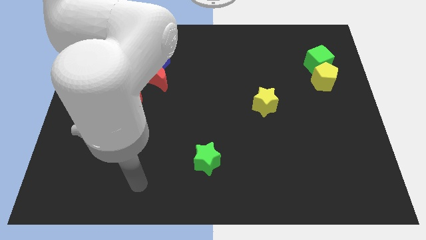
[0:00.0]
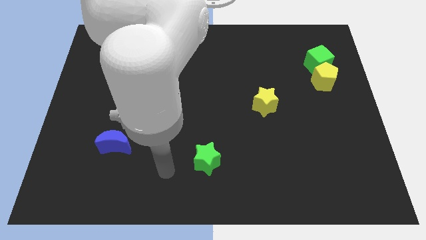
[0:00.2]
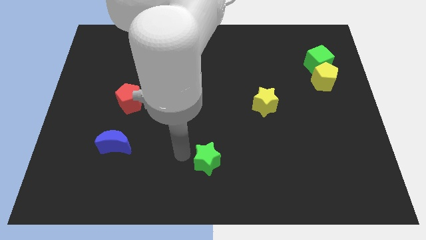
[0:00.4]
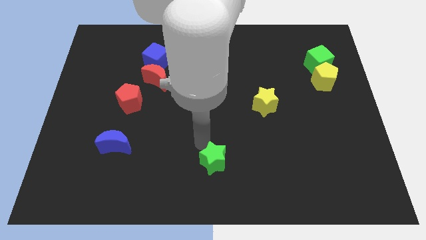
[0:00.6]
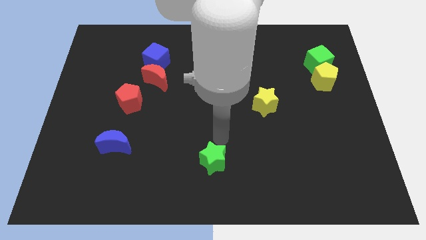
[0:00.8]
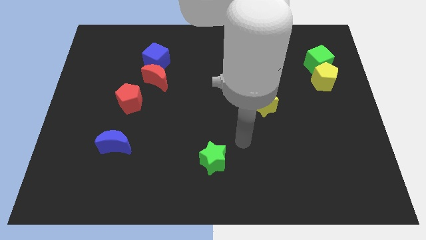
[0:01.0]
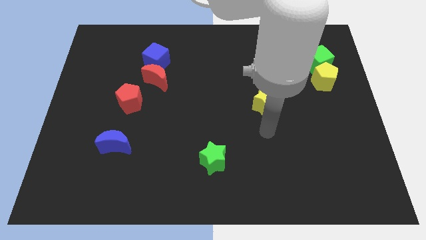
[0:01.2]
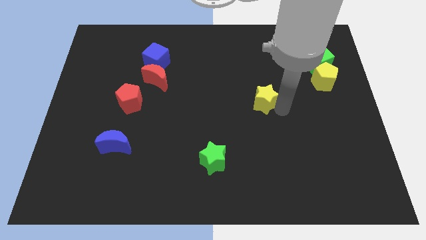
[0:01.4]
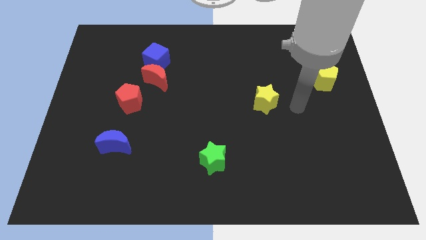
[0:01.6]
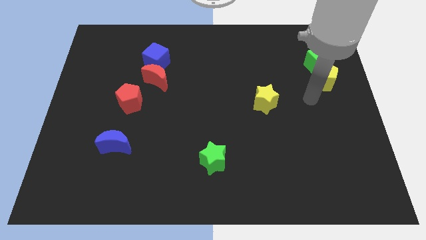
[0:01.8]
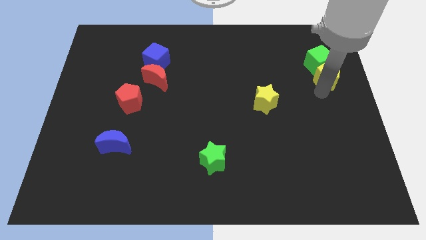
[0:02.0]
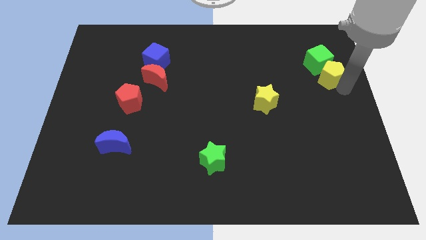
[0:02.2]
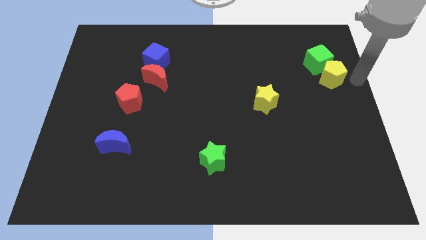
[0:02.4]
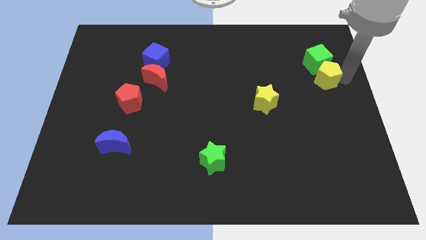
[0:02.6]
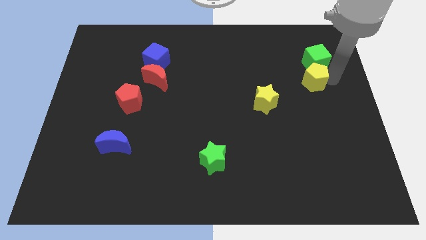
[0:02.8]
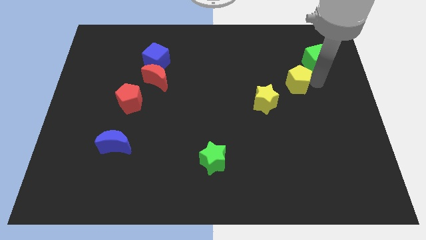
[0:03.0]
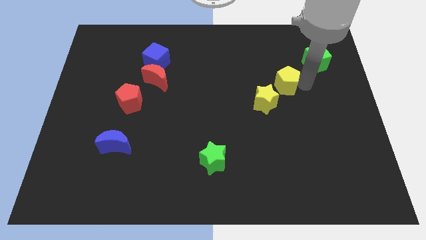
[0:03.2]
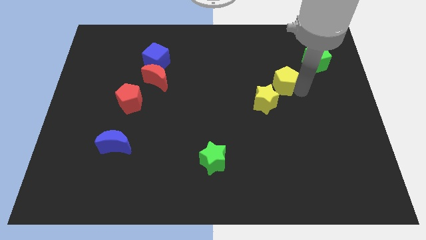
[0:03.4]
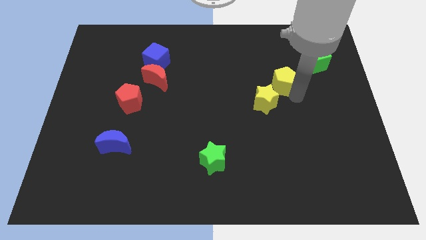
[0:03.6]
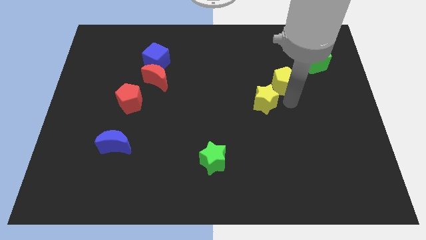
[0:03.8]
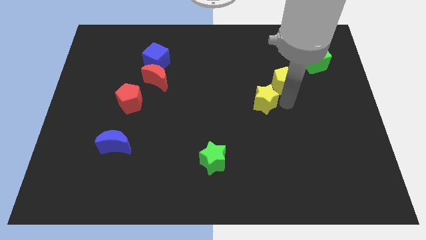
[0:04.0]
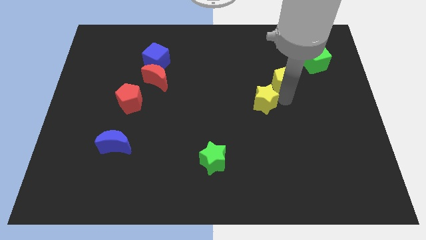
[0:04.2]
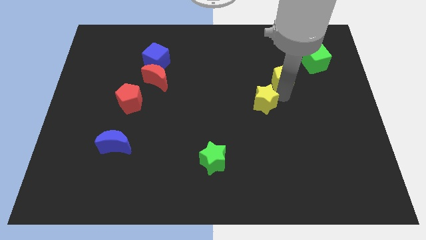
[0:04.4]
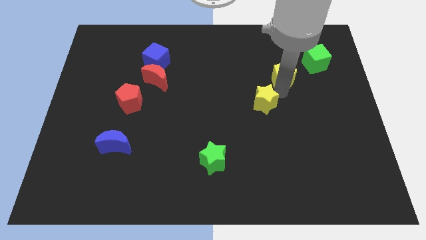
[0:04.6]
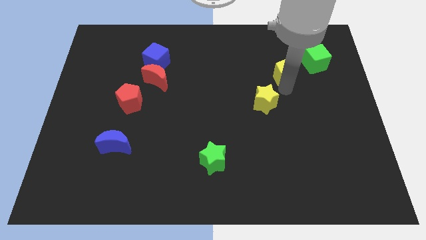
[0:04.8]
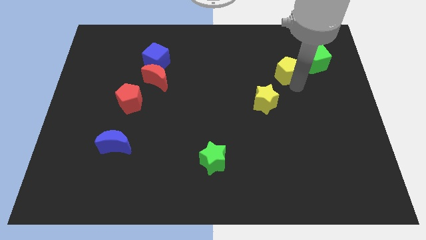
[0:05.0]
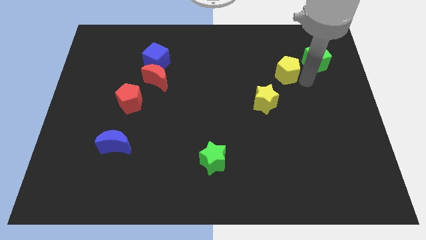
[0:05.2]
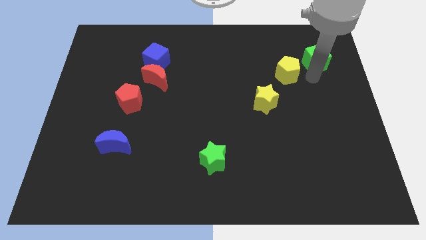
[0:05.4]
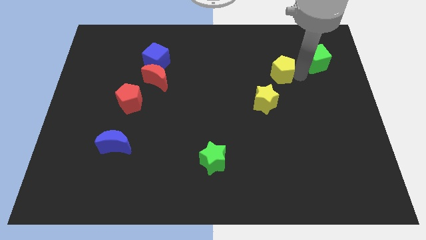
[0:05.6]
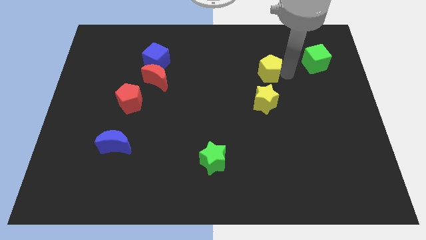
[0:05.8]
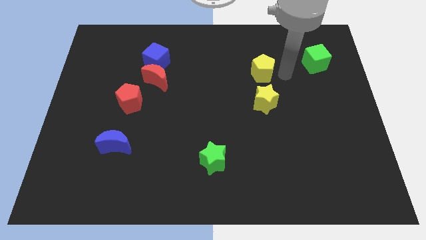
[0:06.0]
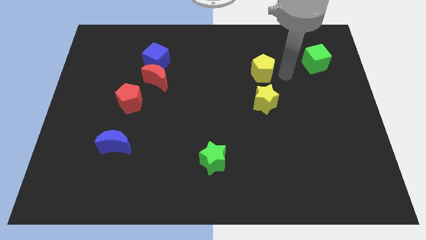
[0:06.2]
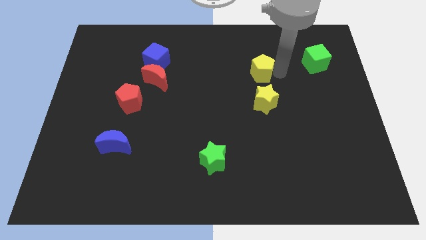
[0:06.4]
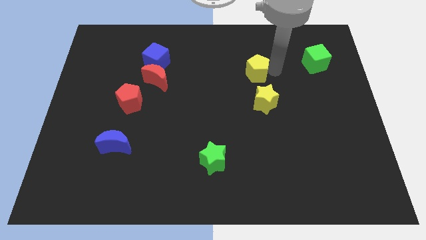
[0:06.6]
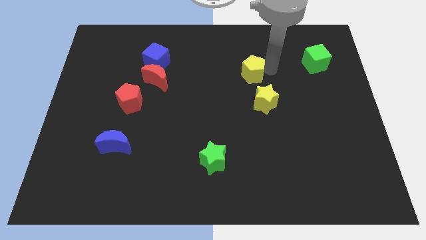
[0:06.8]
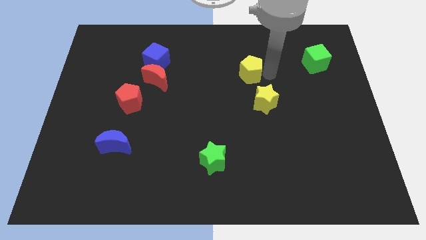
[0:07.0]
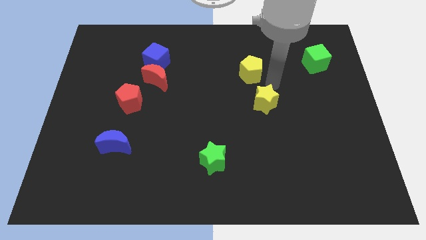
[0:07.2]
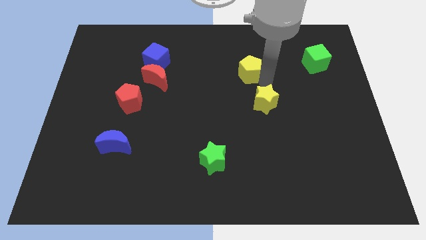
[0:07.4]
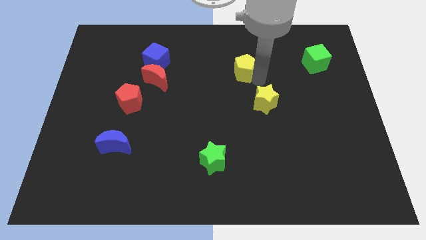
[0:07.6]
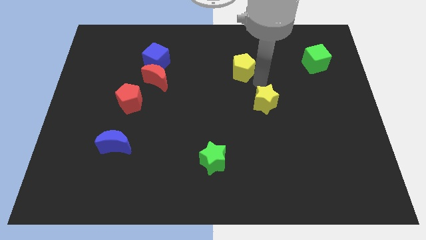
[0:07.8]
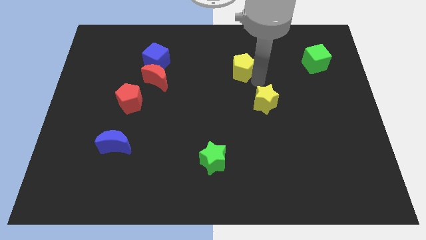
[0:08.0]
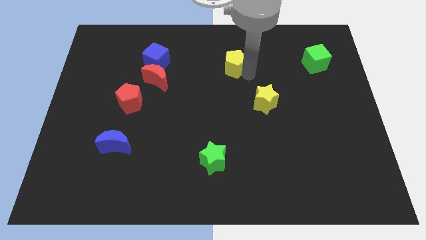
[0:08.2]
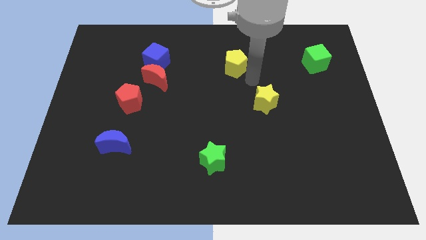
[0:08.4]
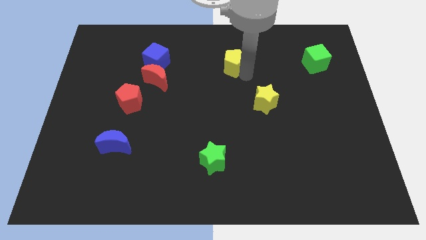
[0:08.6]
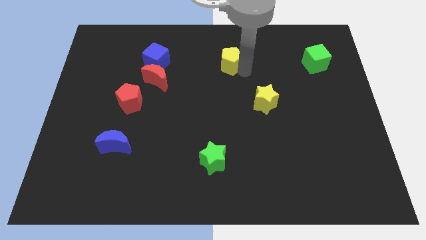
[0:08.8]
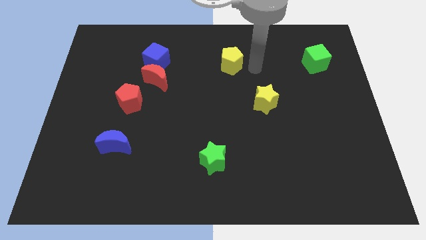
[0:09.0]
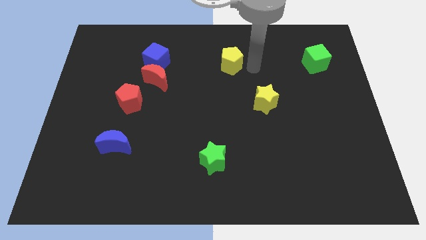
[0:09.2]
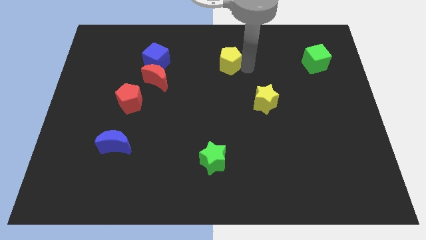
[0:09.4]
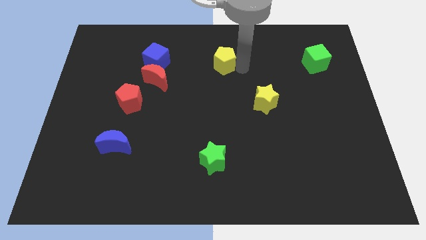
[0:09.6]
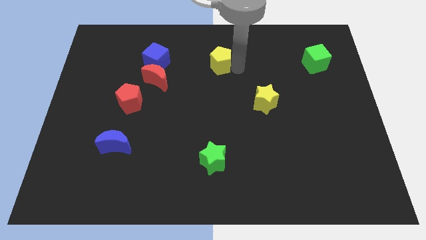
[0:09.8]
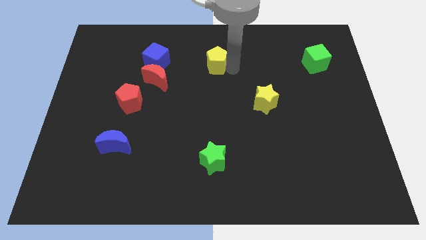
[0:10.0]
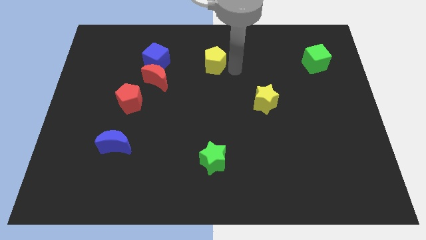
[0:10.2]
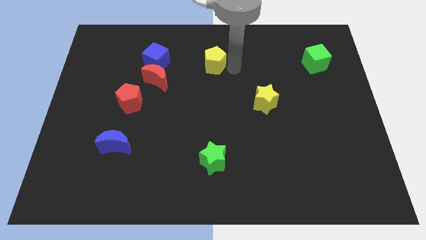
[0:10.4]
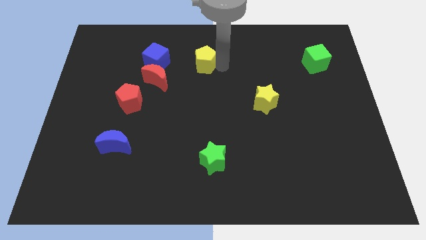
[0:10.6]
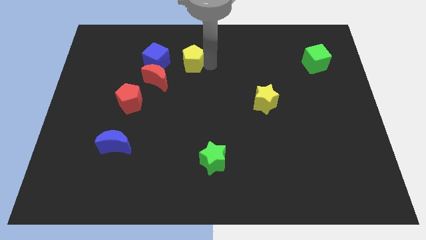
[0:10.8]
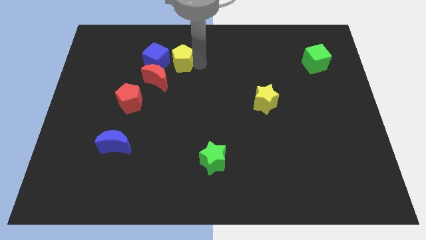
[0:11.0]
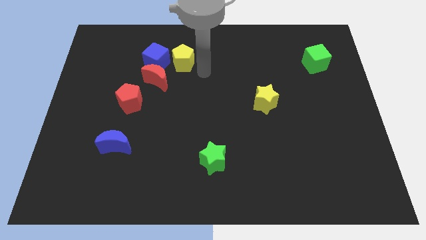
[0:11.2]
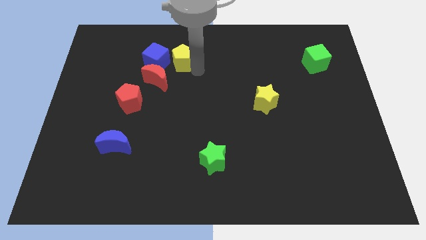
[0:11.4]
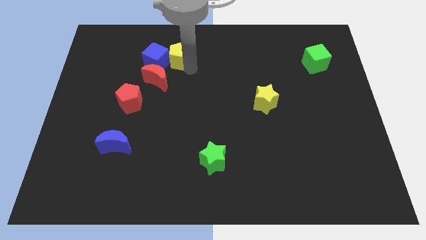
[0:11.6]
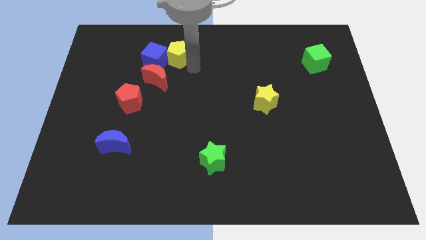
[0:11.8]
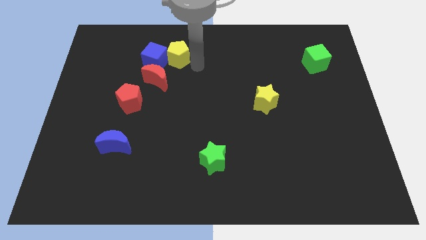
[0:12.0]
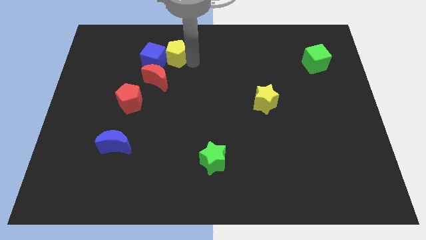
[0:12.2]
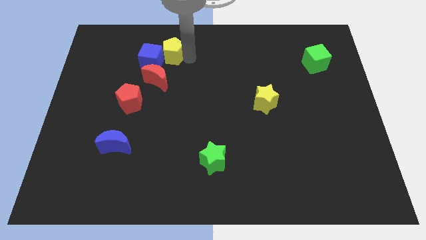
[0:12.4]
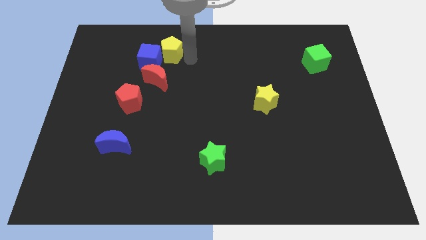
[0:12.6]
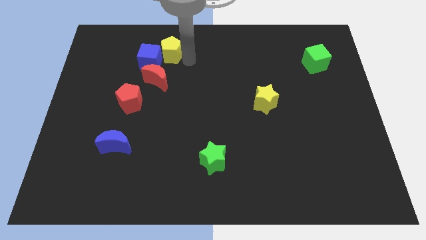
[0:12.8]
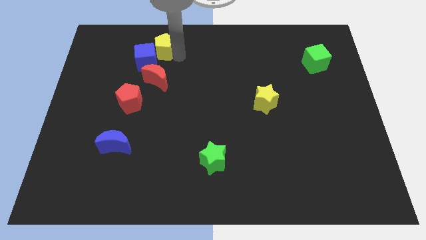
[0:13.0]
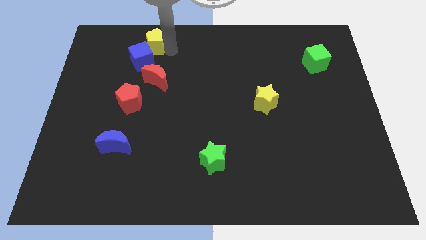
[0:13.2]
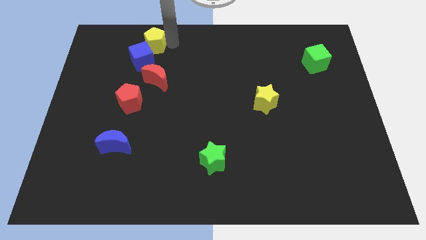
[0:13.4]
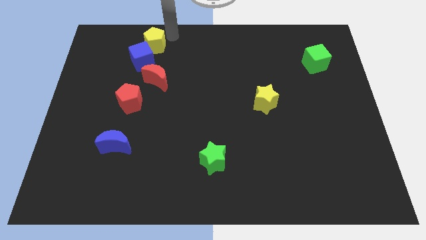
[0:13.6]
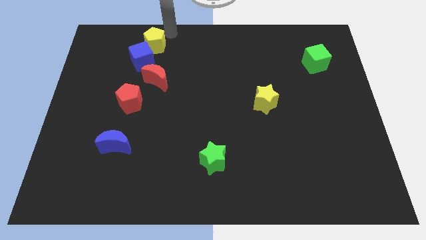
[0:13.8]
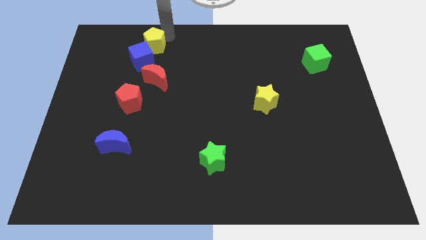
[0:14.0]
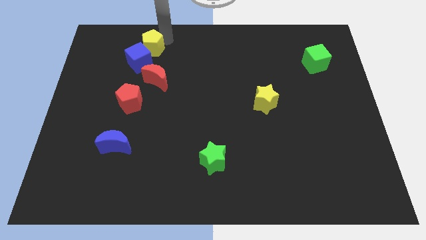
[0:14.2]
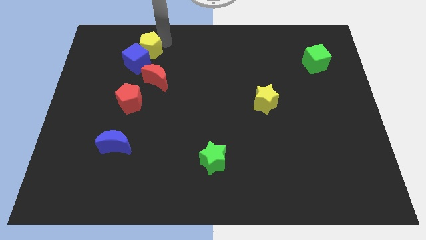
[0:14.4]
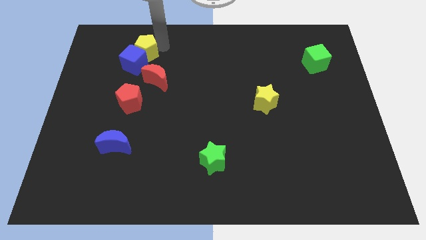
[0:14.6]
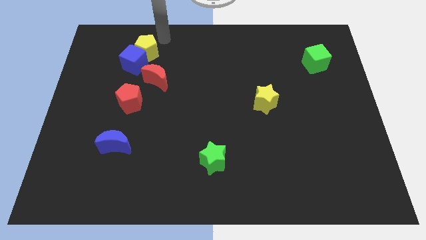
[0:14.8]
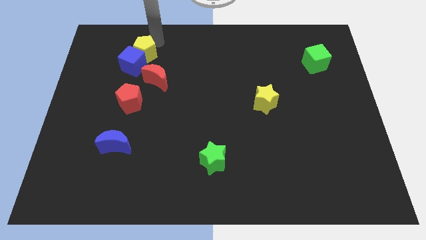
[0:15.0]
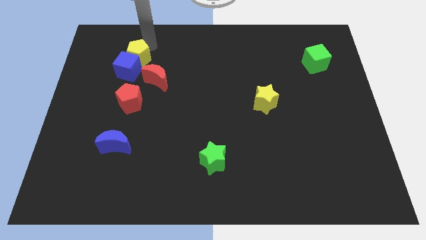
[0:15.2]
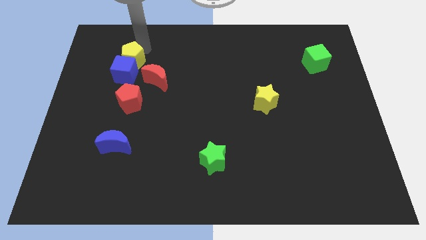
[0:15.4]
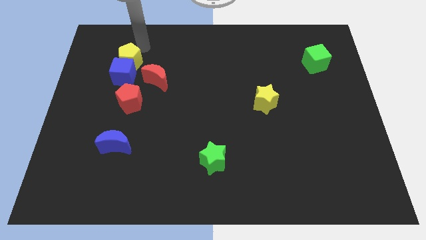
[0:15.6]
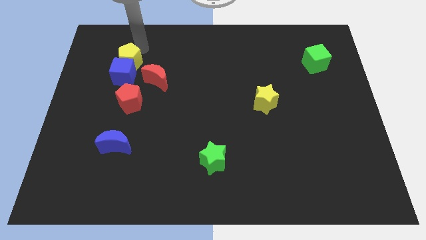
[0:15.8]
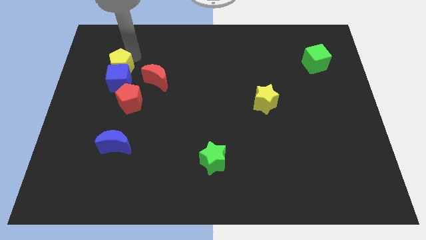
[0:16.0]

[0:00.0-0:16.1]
move the yellow pentagon just left of the red moon
